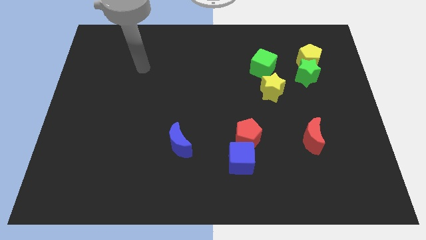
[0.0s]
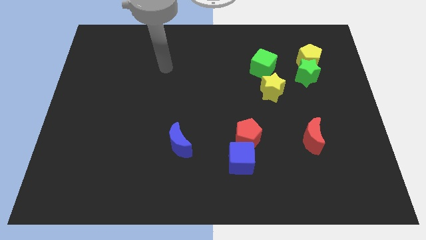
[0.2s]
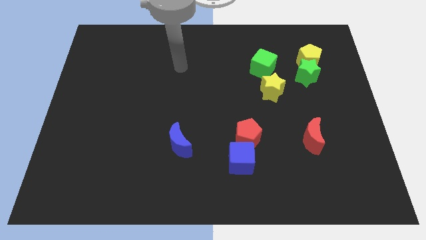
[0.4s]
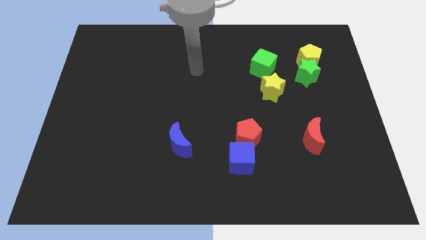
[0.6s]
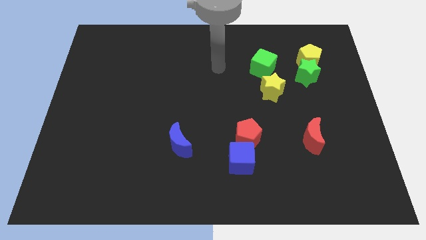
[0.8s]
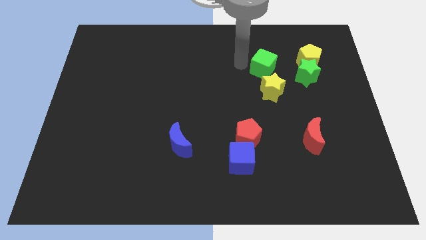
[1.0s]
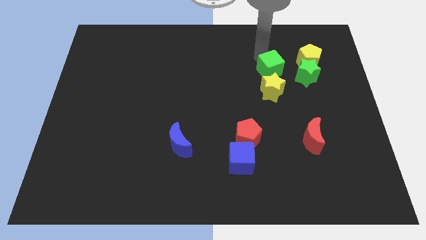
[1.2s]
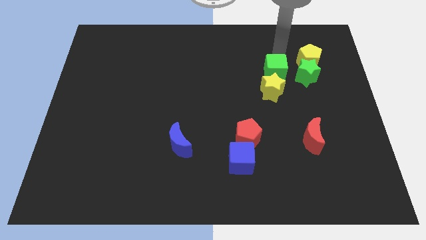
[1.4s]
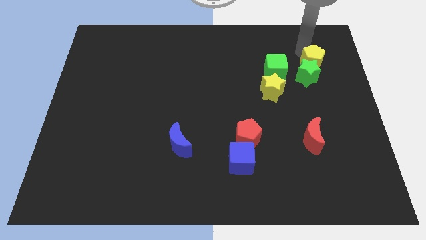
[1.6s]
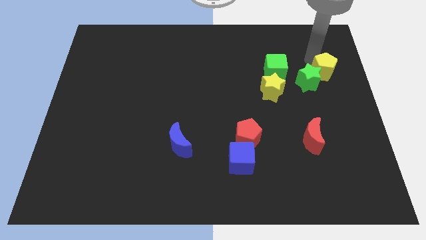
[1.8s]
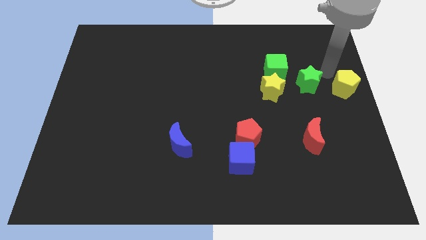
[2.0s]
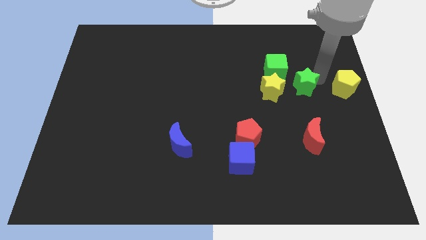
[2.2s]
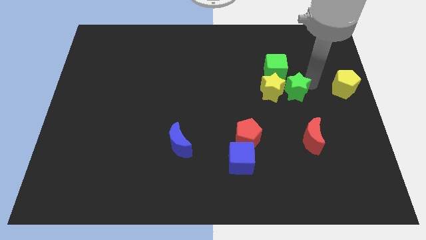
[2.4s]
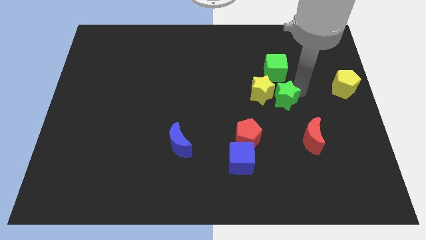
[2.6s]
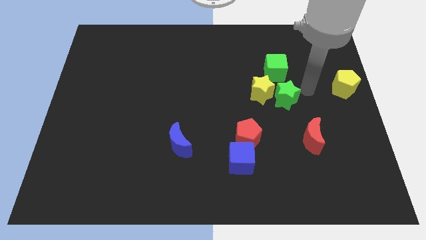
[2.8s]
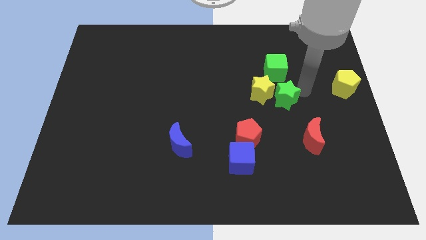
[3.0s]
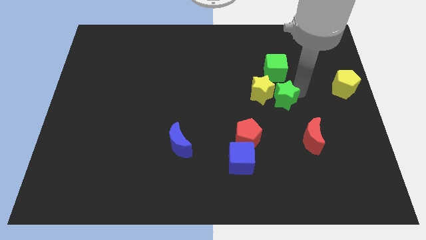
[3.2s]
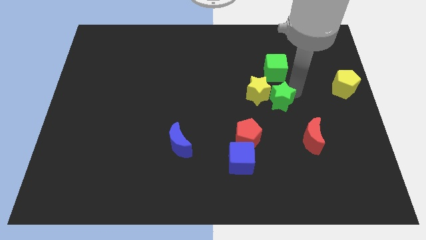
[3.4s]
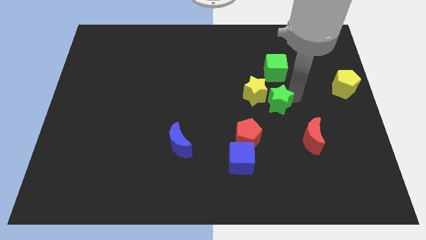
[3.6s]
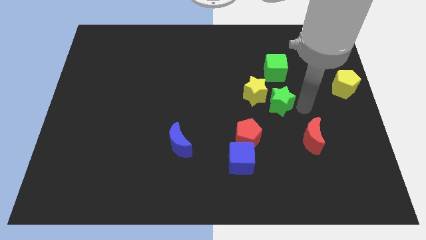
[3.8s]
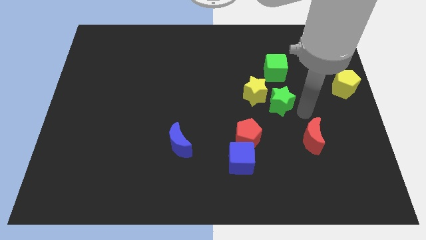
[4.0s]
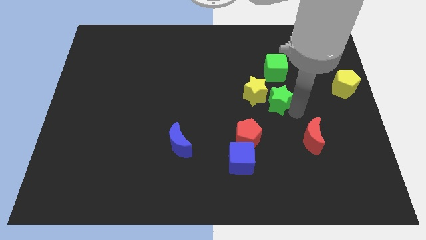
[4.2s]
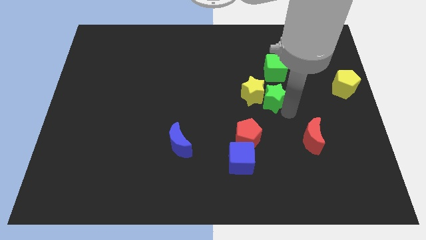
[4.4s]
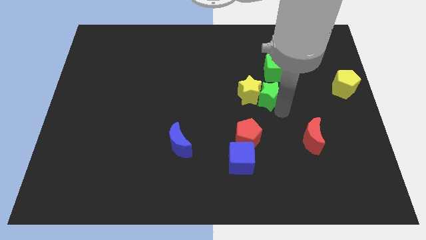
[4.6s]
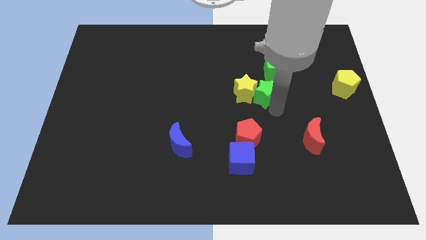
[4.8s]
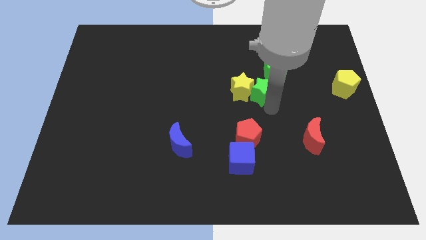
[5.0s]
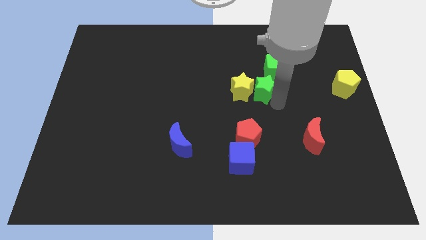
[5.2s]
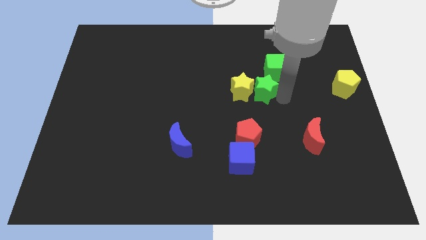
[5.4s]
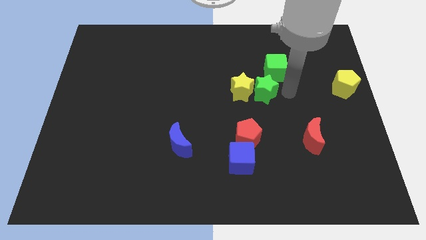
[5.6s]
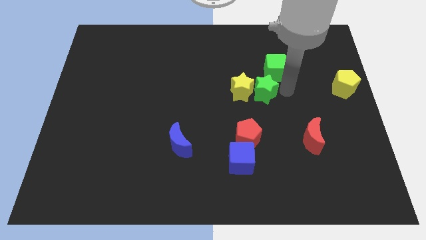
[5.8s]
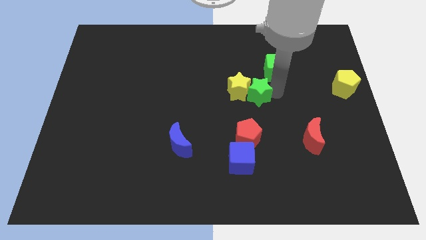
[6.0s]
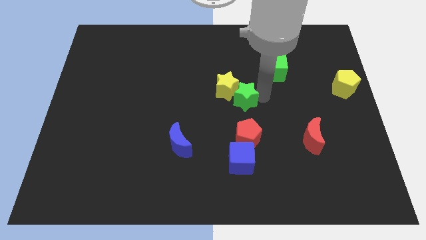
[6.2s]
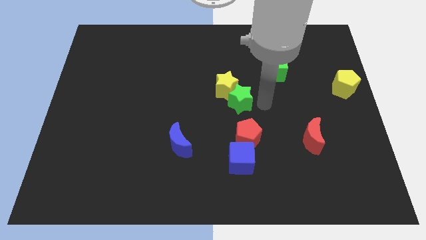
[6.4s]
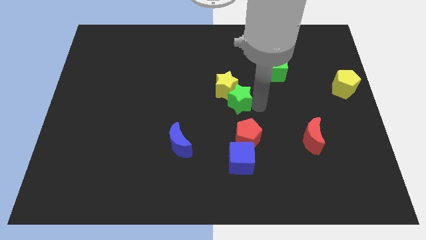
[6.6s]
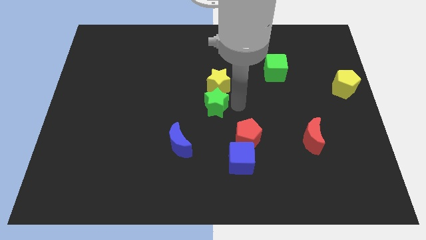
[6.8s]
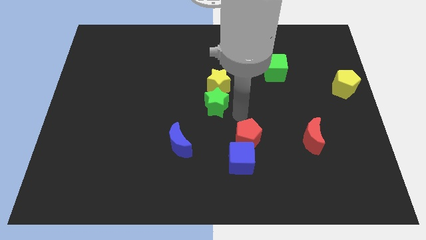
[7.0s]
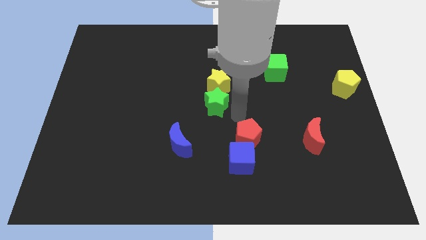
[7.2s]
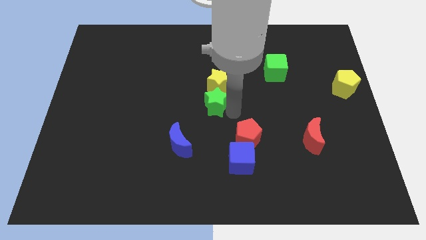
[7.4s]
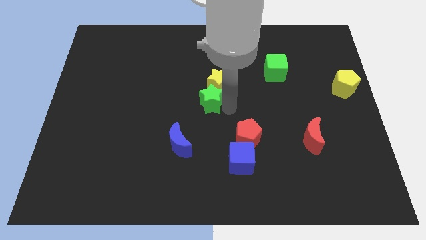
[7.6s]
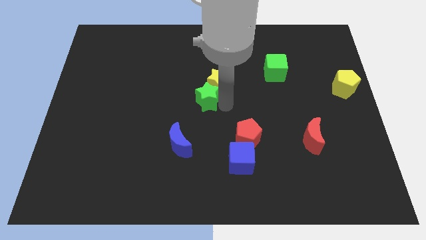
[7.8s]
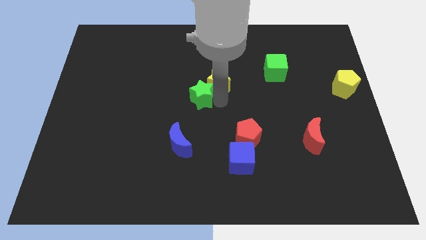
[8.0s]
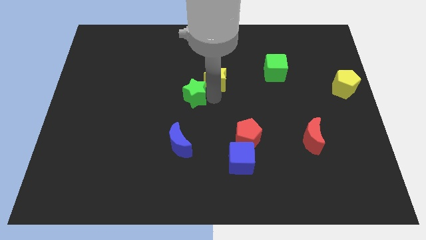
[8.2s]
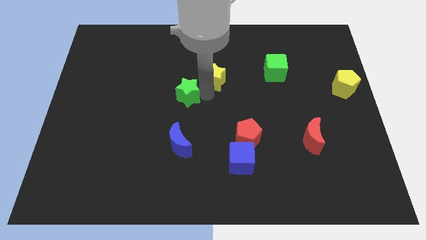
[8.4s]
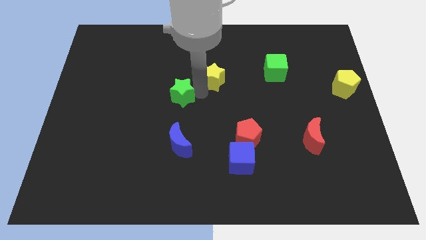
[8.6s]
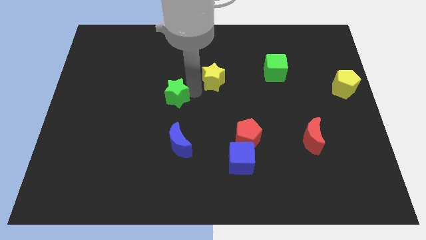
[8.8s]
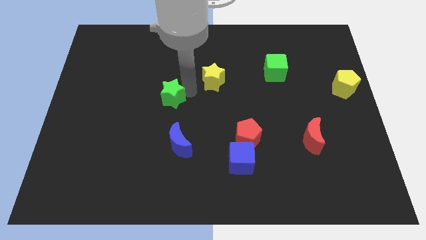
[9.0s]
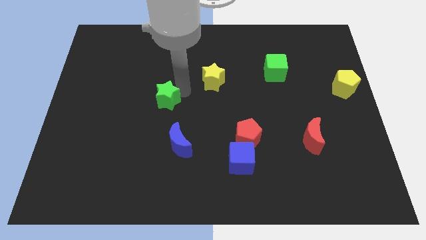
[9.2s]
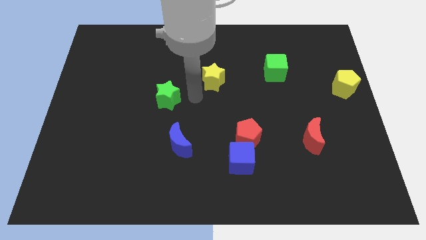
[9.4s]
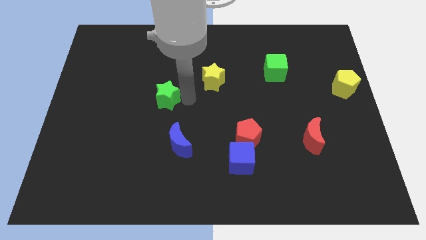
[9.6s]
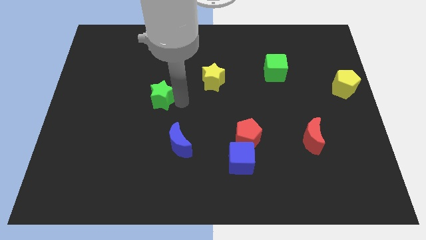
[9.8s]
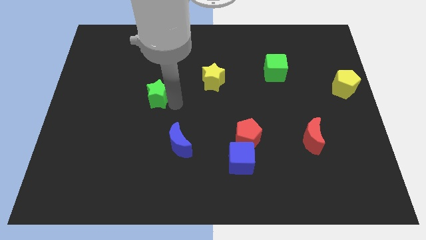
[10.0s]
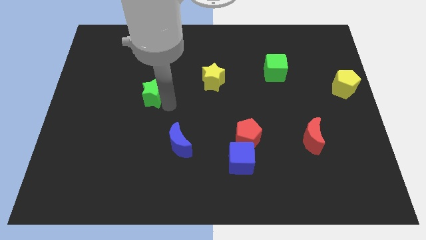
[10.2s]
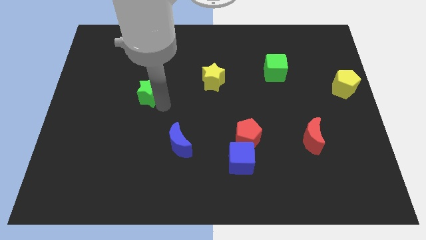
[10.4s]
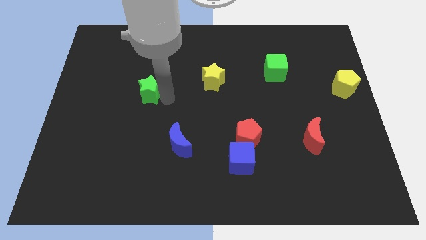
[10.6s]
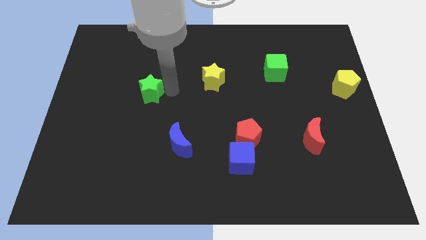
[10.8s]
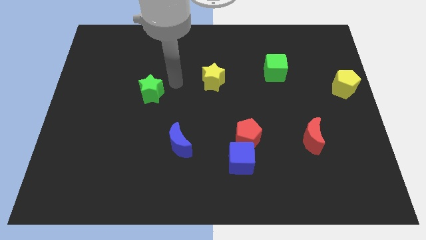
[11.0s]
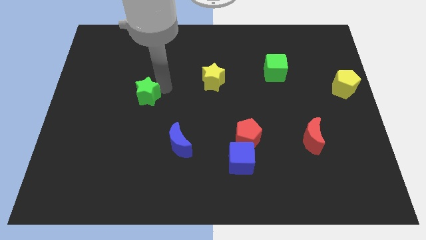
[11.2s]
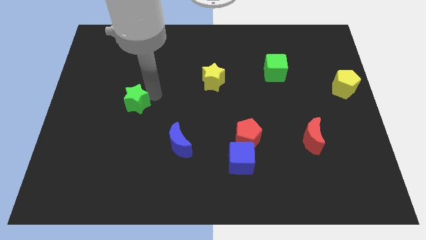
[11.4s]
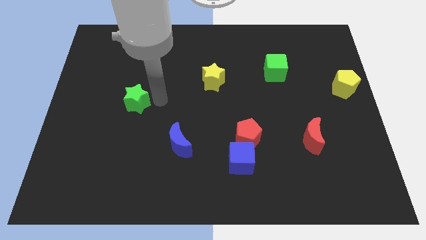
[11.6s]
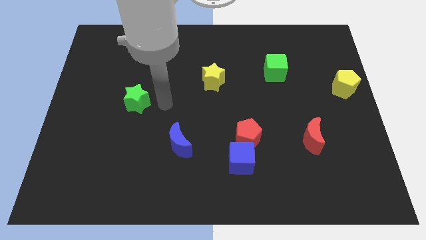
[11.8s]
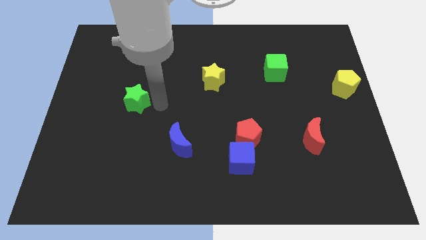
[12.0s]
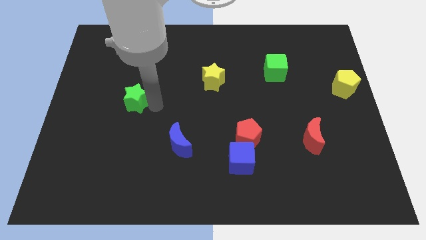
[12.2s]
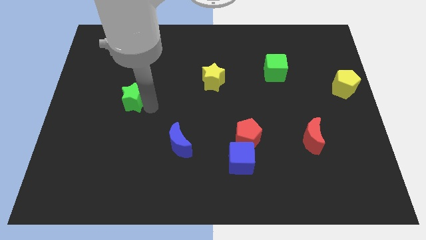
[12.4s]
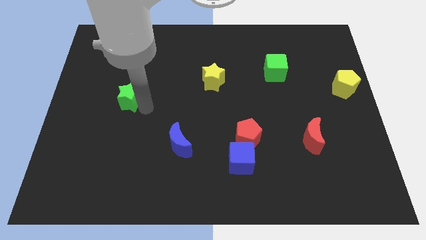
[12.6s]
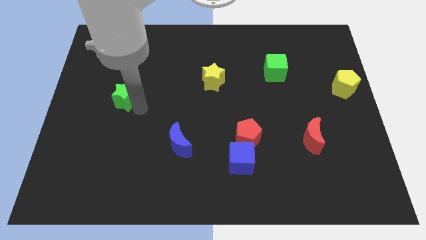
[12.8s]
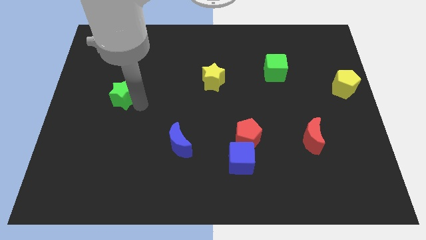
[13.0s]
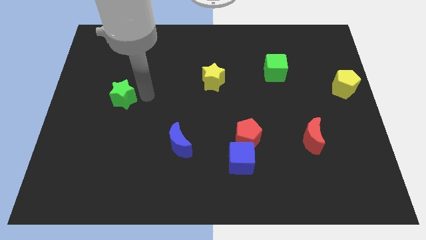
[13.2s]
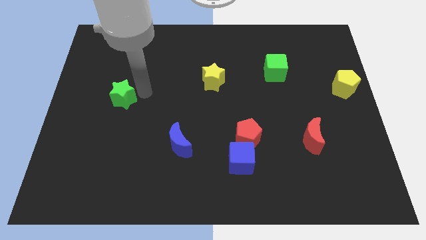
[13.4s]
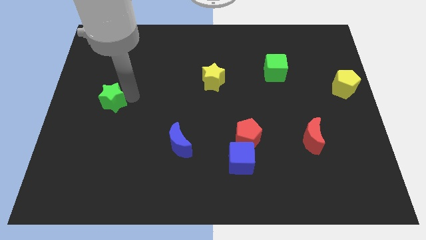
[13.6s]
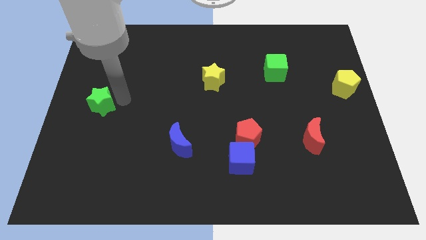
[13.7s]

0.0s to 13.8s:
put the green star to the center left

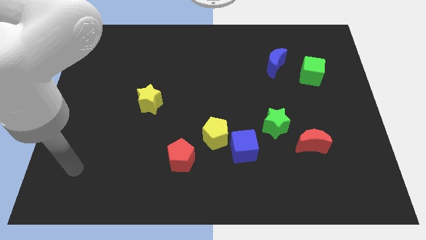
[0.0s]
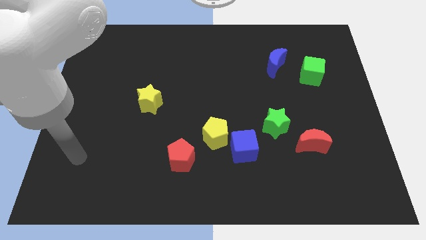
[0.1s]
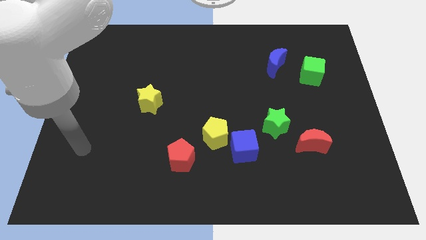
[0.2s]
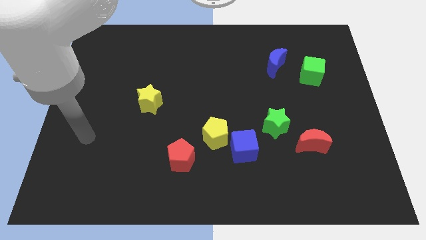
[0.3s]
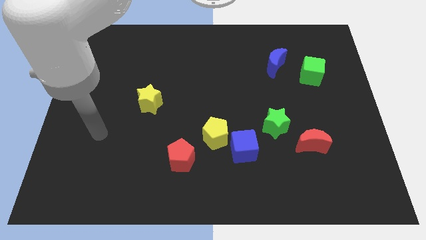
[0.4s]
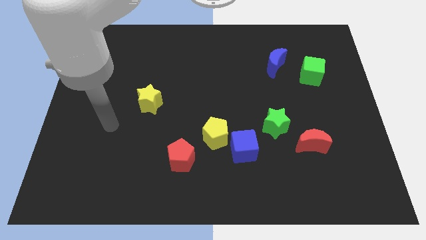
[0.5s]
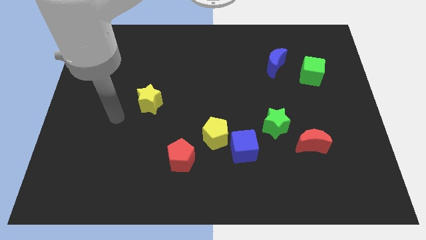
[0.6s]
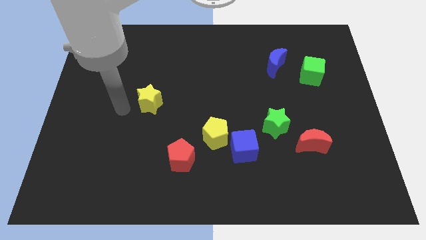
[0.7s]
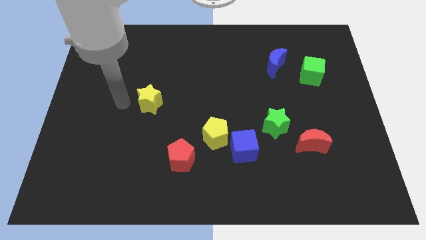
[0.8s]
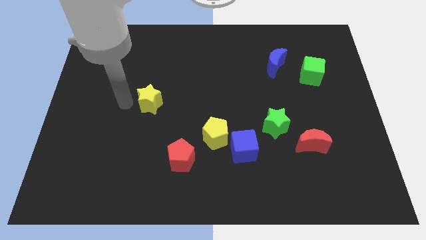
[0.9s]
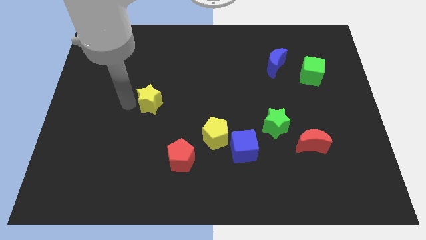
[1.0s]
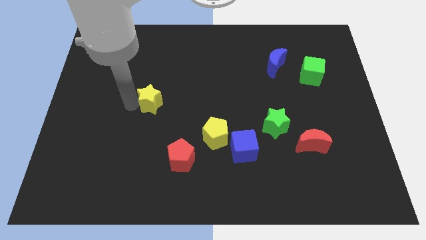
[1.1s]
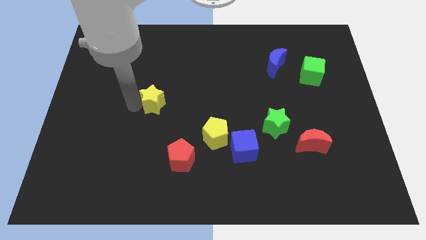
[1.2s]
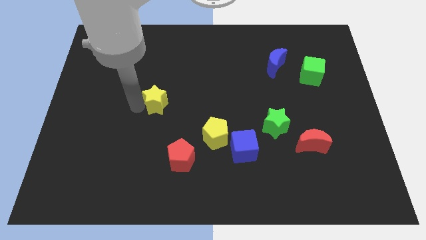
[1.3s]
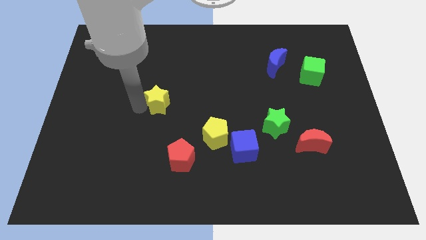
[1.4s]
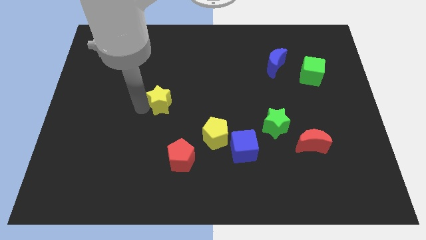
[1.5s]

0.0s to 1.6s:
move the yellow star to the center of the board
